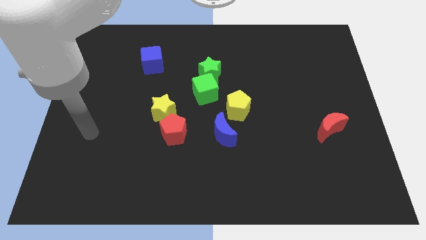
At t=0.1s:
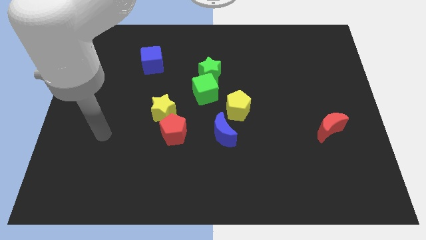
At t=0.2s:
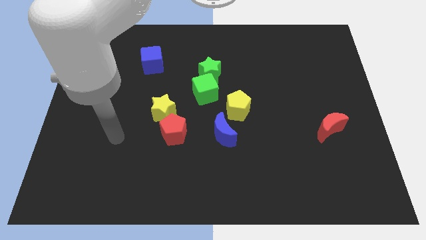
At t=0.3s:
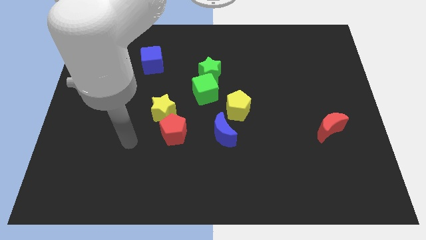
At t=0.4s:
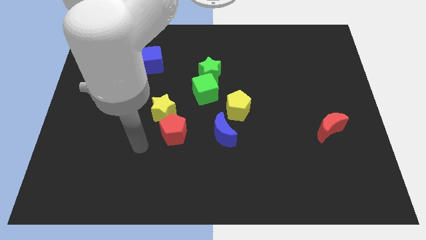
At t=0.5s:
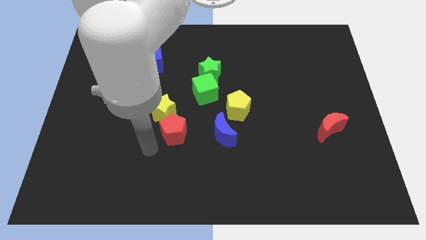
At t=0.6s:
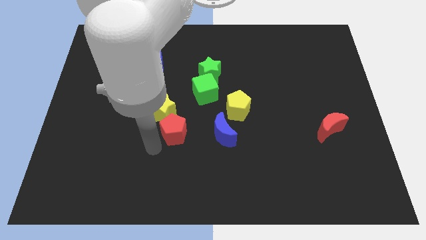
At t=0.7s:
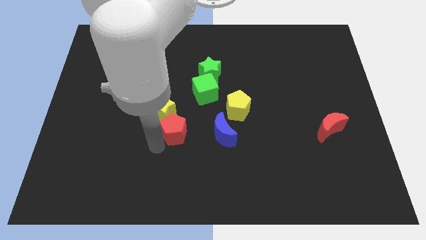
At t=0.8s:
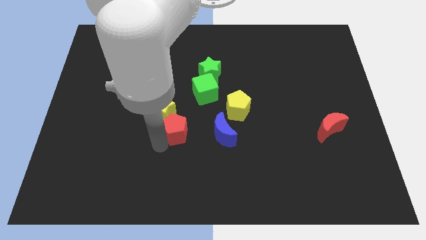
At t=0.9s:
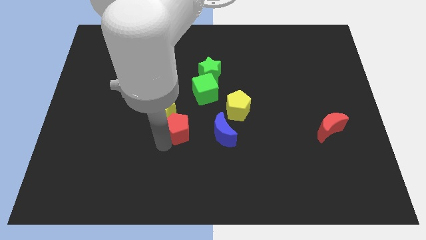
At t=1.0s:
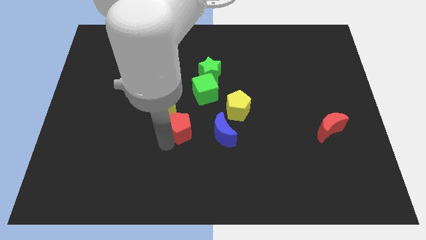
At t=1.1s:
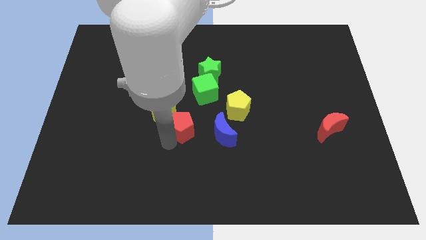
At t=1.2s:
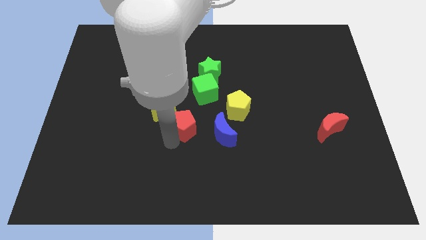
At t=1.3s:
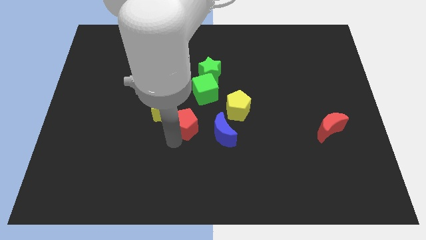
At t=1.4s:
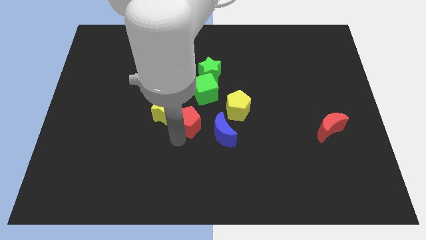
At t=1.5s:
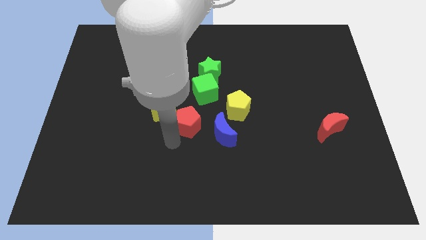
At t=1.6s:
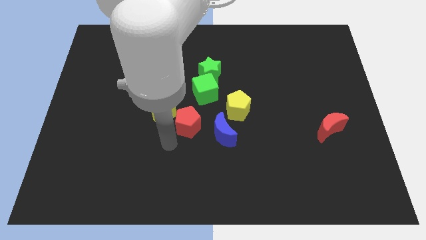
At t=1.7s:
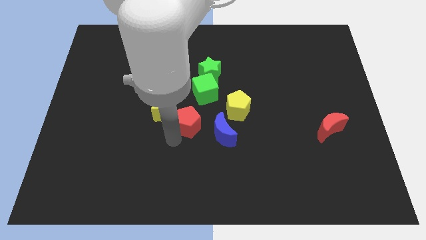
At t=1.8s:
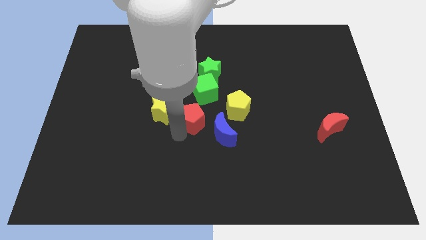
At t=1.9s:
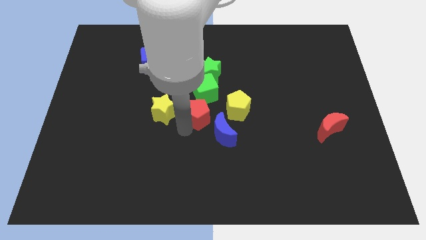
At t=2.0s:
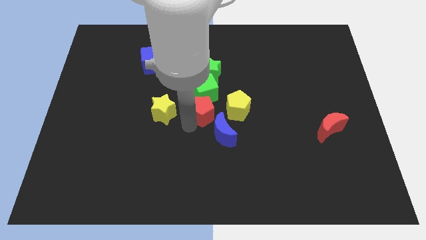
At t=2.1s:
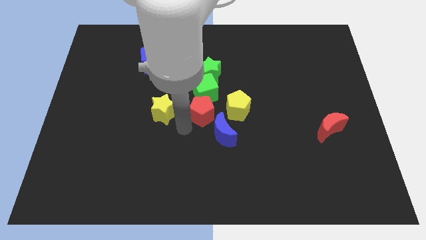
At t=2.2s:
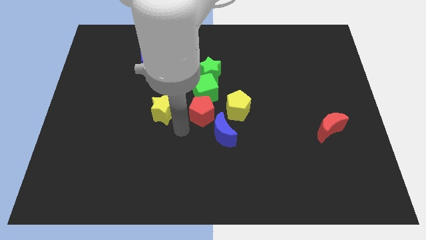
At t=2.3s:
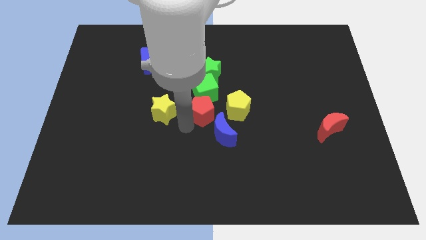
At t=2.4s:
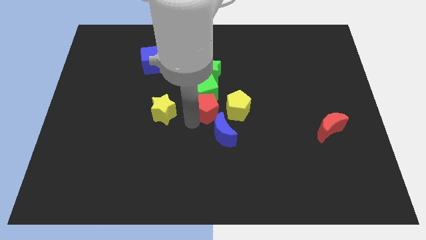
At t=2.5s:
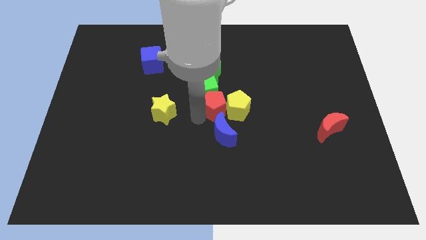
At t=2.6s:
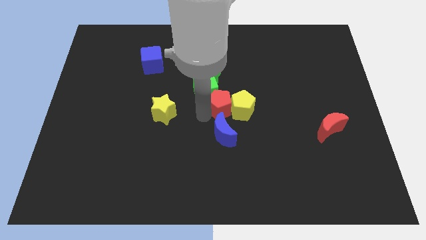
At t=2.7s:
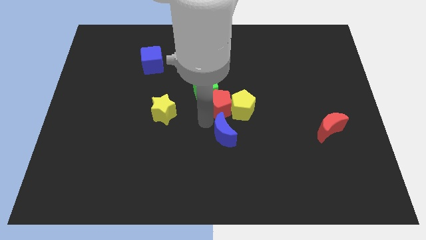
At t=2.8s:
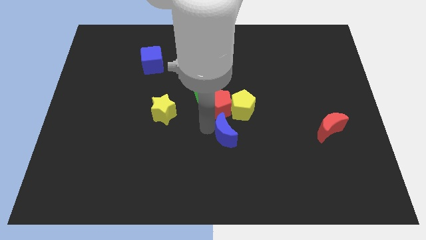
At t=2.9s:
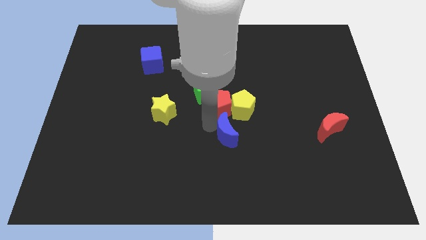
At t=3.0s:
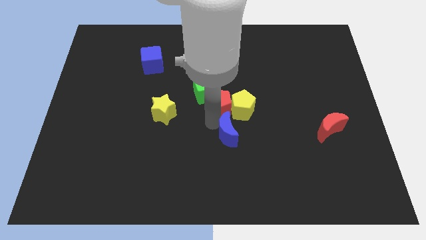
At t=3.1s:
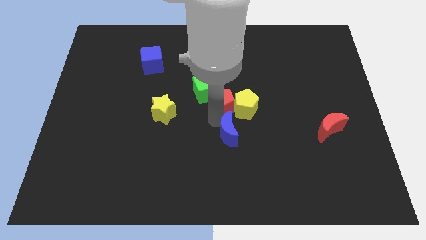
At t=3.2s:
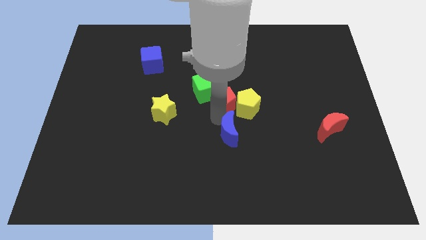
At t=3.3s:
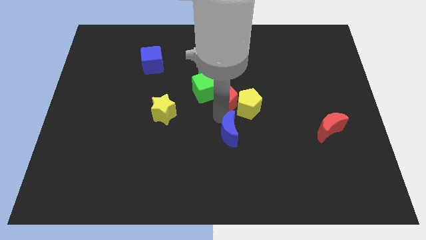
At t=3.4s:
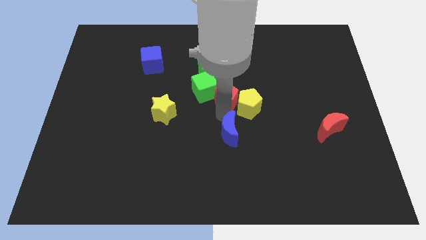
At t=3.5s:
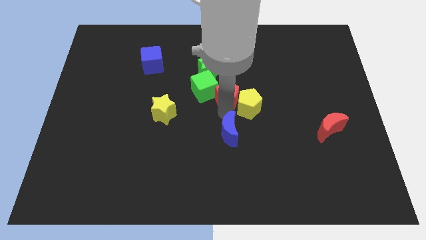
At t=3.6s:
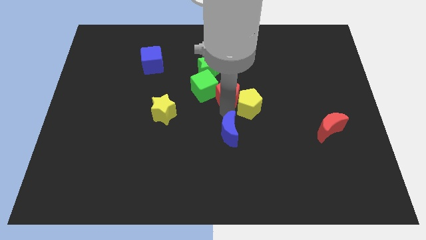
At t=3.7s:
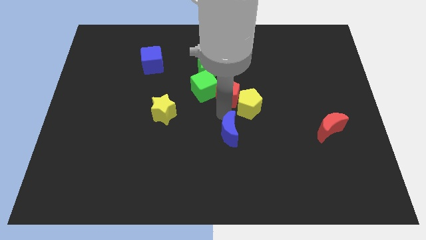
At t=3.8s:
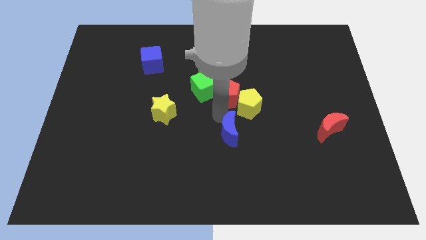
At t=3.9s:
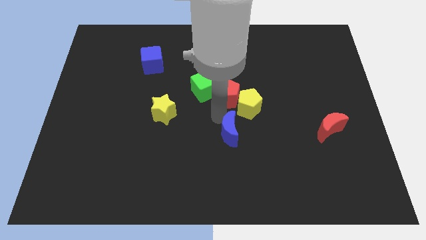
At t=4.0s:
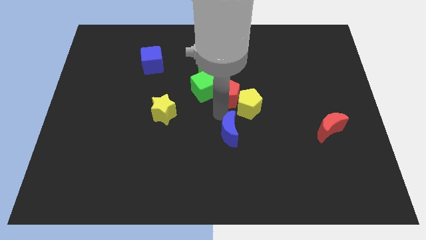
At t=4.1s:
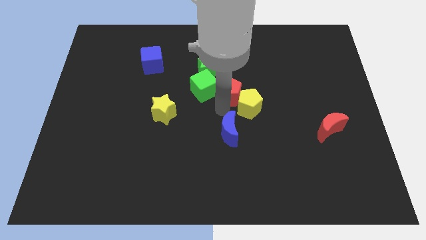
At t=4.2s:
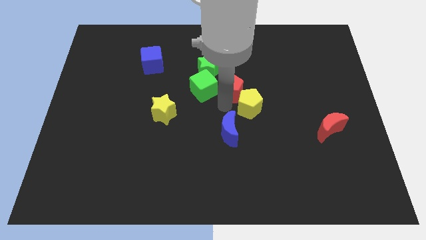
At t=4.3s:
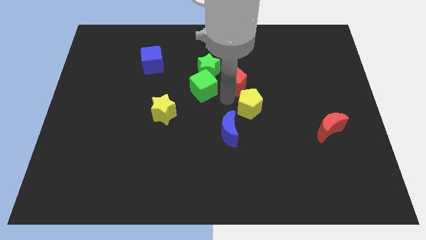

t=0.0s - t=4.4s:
push the red pentagon up and then to the right

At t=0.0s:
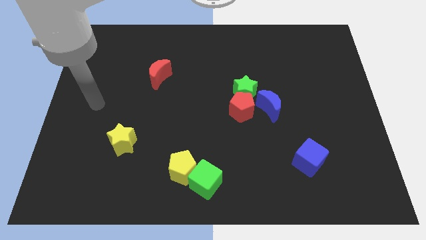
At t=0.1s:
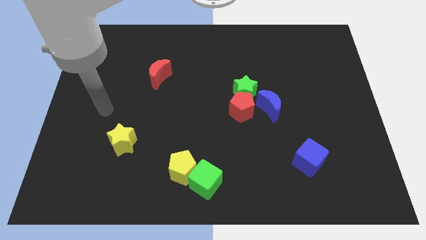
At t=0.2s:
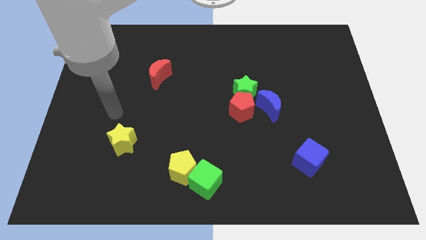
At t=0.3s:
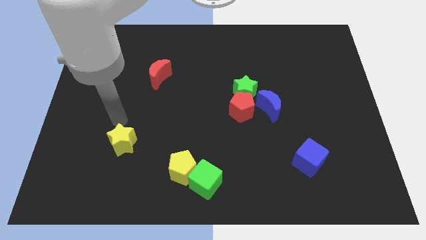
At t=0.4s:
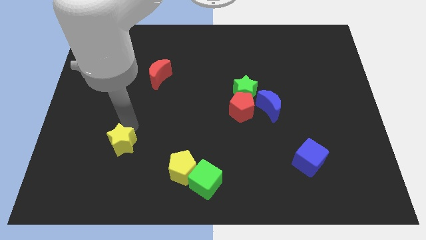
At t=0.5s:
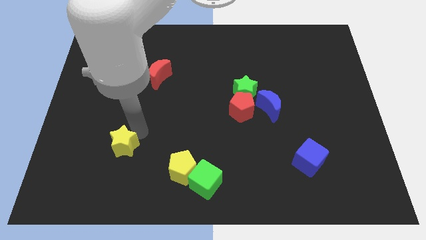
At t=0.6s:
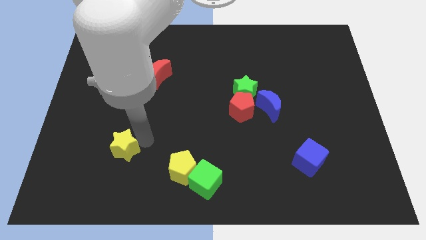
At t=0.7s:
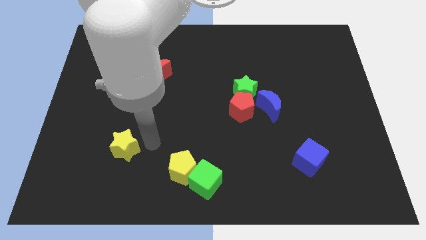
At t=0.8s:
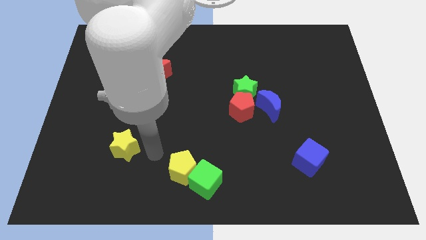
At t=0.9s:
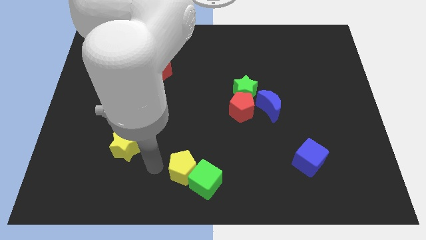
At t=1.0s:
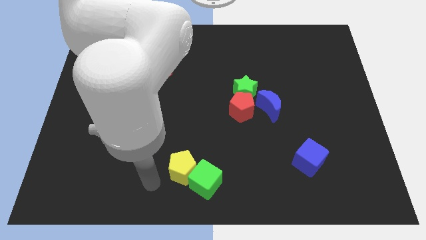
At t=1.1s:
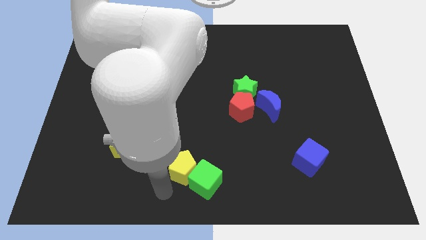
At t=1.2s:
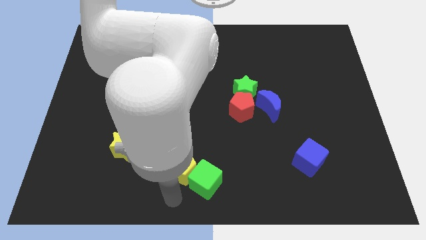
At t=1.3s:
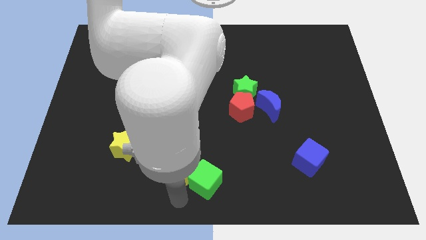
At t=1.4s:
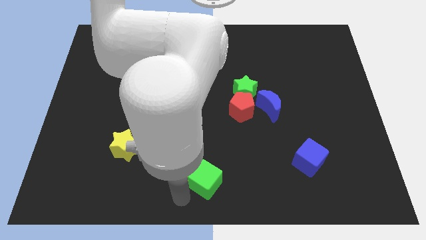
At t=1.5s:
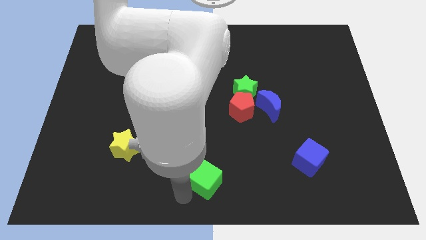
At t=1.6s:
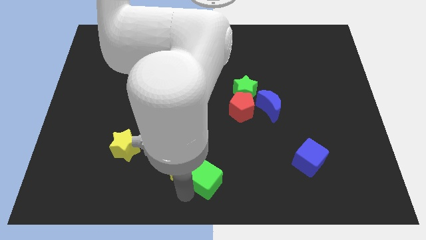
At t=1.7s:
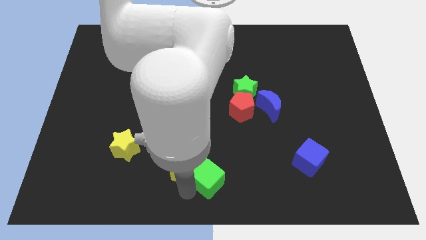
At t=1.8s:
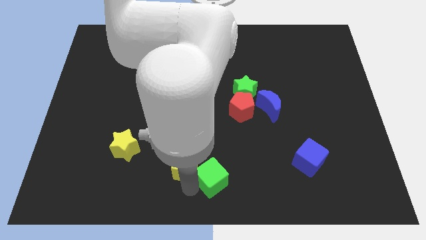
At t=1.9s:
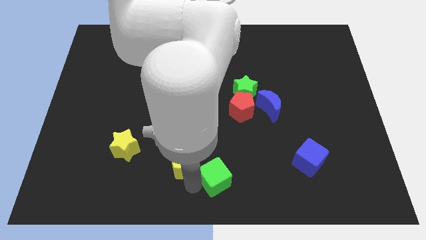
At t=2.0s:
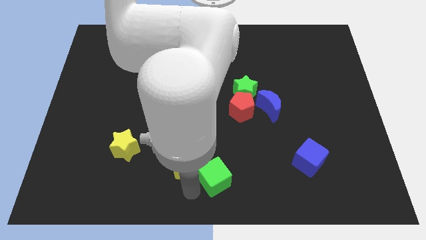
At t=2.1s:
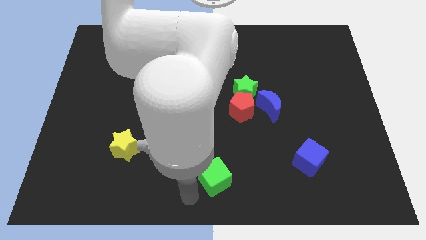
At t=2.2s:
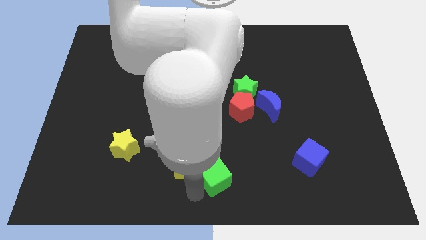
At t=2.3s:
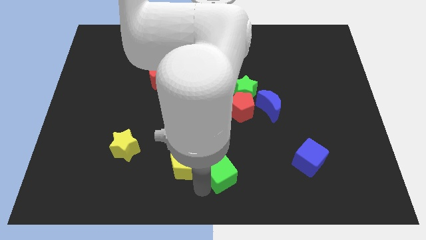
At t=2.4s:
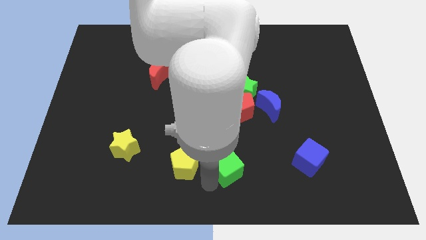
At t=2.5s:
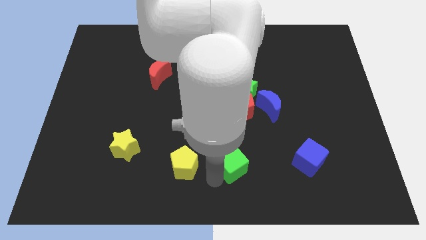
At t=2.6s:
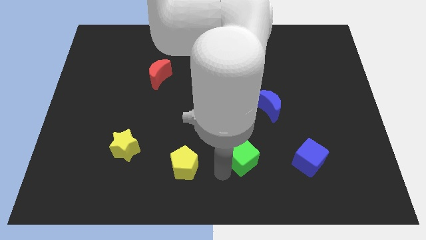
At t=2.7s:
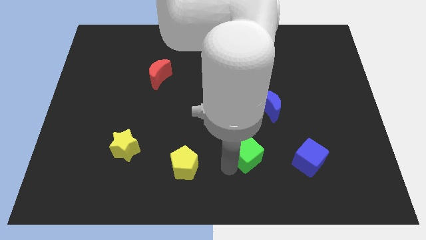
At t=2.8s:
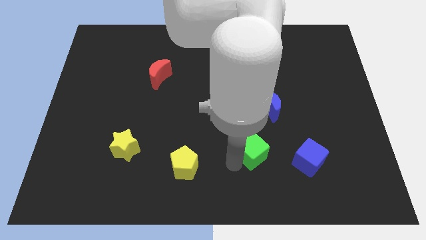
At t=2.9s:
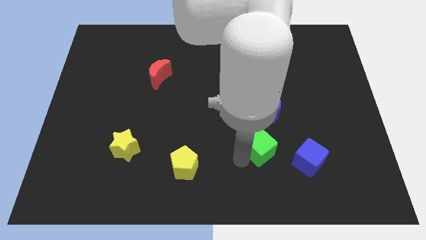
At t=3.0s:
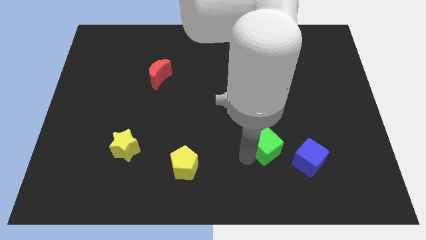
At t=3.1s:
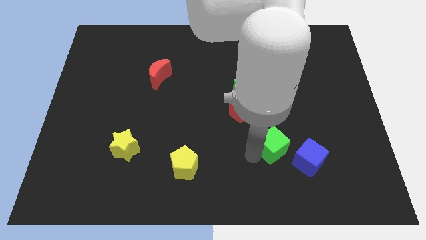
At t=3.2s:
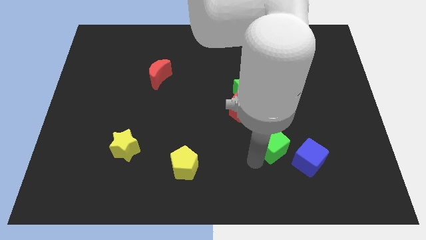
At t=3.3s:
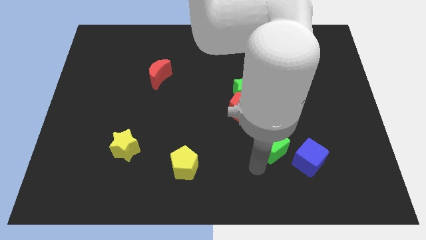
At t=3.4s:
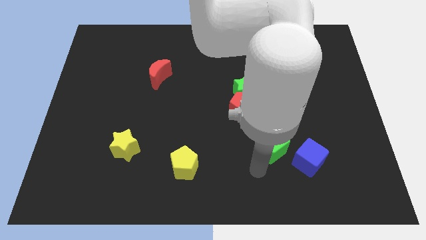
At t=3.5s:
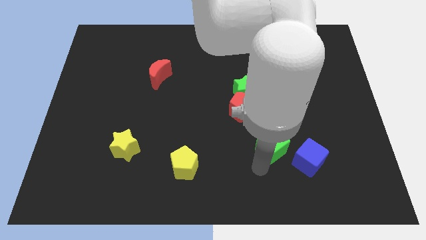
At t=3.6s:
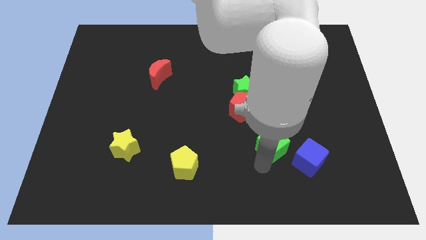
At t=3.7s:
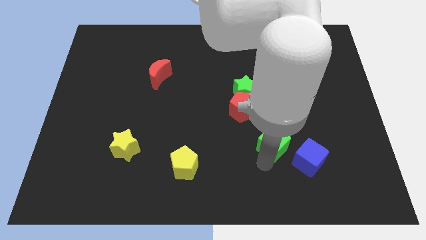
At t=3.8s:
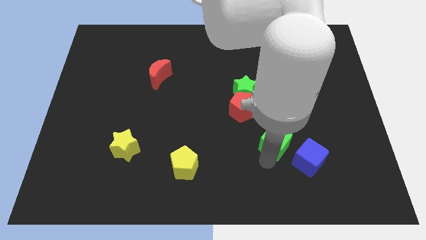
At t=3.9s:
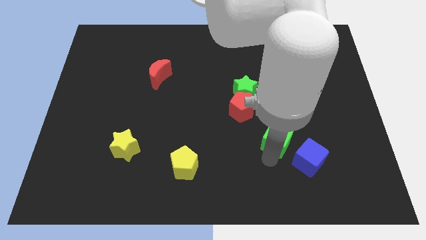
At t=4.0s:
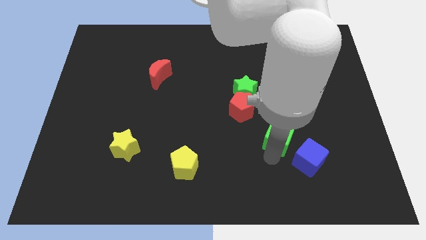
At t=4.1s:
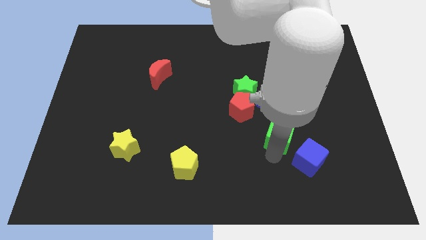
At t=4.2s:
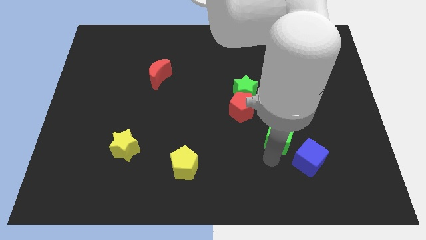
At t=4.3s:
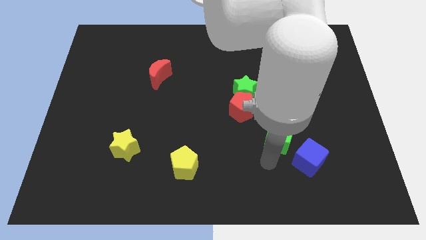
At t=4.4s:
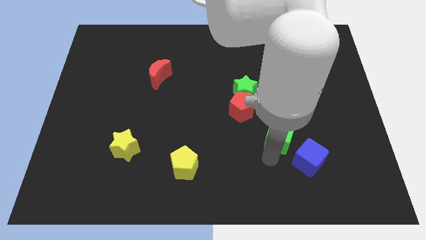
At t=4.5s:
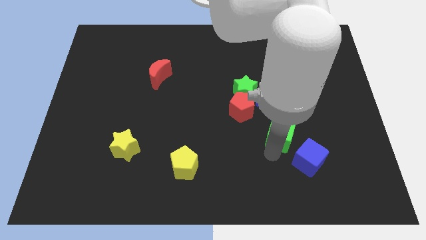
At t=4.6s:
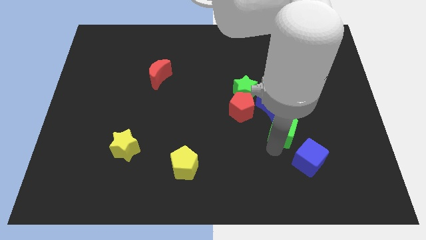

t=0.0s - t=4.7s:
push the green cube diagonally up and right
